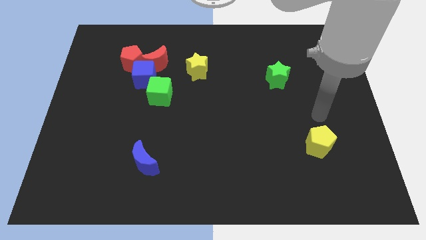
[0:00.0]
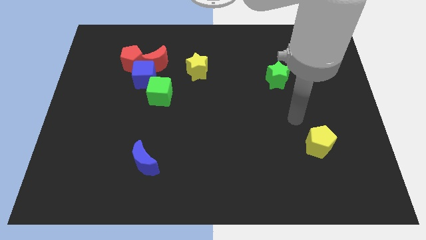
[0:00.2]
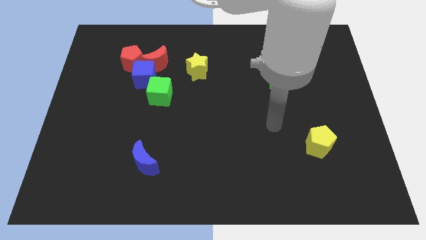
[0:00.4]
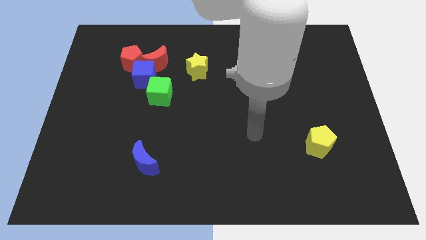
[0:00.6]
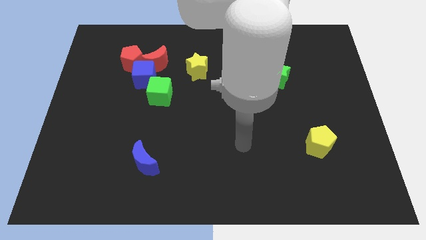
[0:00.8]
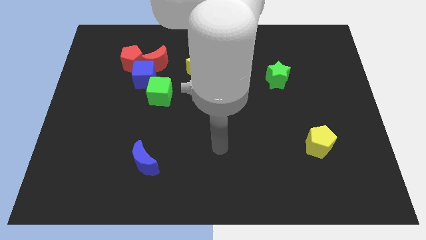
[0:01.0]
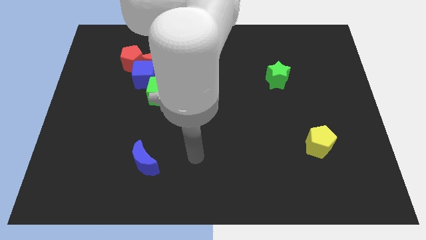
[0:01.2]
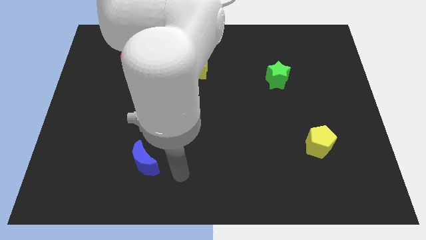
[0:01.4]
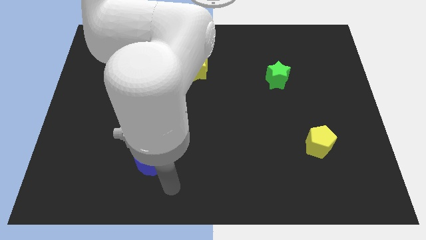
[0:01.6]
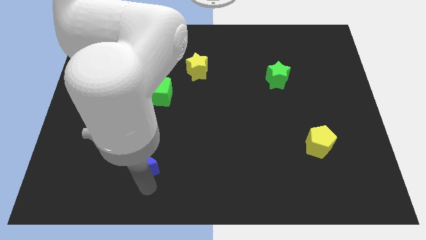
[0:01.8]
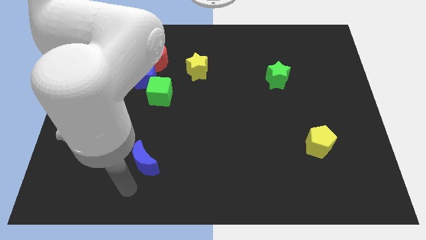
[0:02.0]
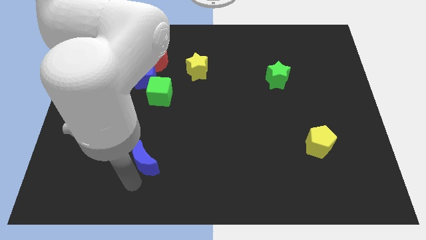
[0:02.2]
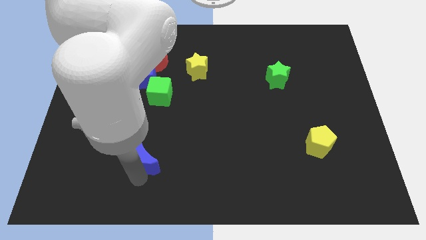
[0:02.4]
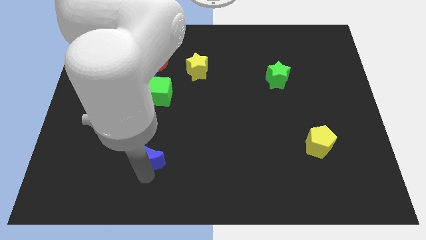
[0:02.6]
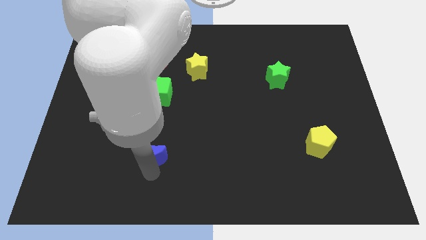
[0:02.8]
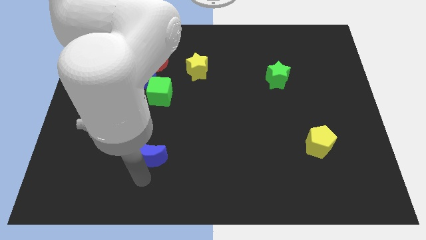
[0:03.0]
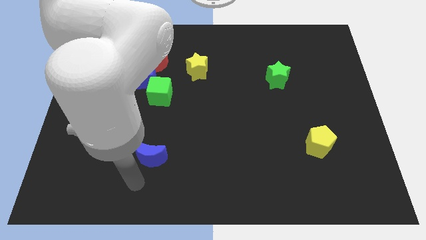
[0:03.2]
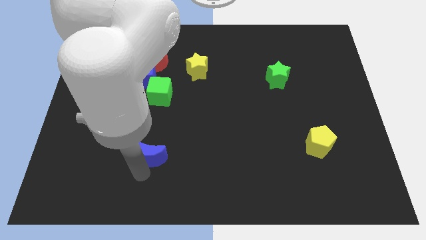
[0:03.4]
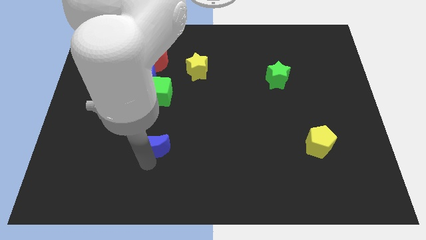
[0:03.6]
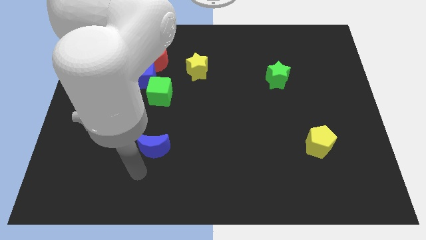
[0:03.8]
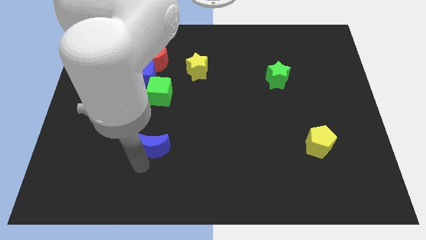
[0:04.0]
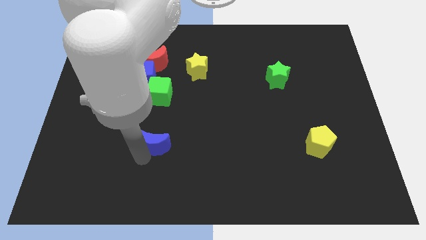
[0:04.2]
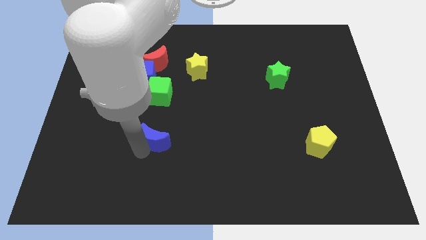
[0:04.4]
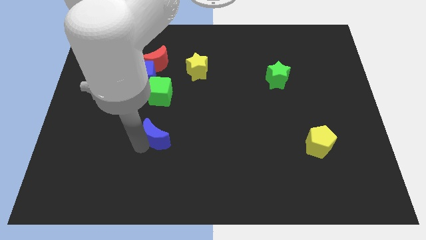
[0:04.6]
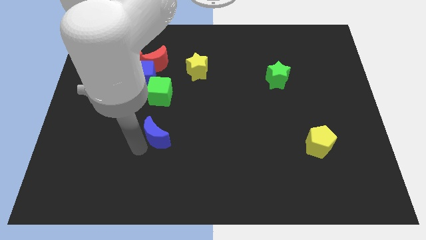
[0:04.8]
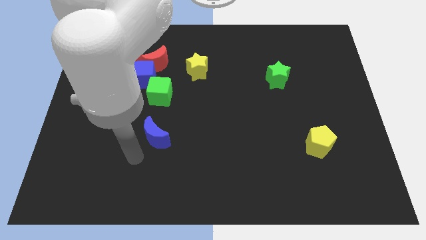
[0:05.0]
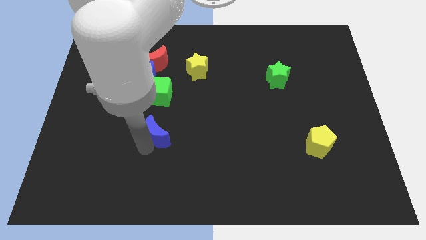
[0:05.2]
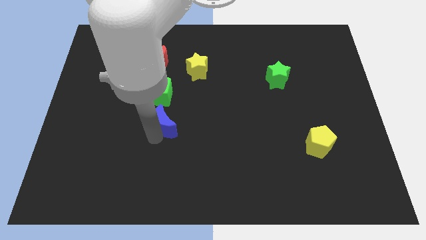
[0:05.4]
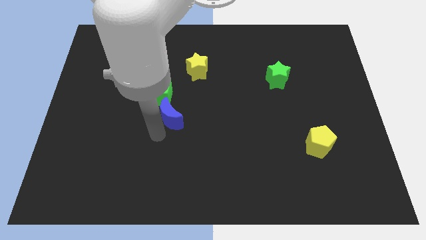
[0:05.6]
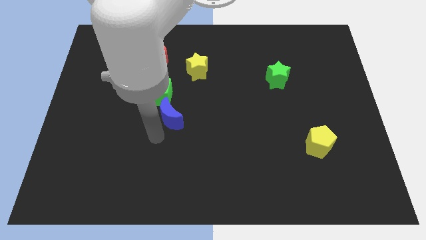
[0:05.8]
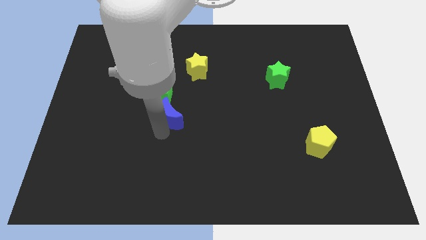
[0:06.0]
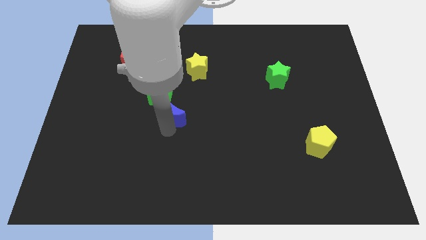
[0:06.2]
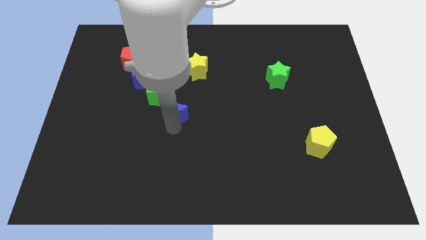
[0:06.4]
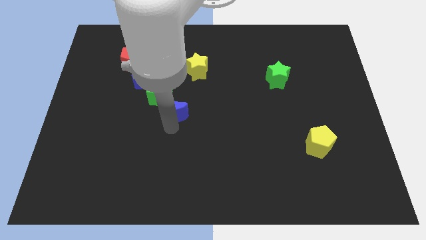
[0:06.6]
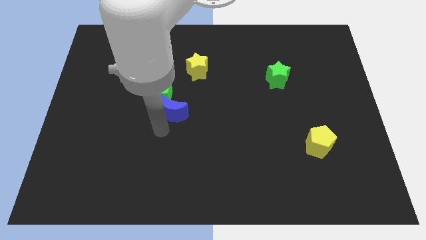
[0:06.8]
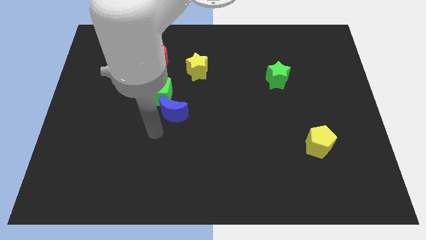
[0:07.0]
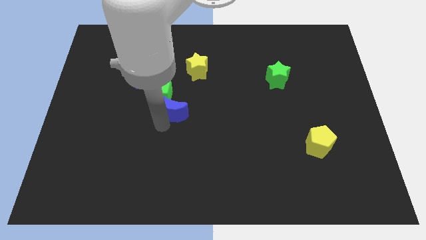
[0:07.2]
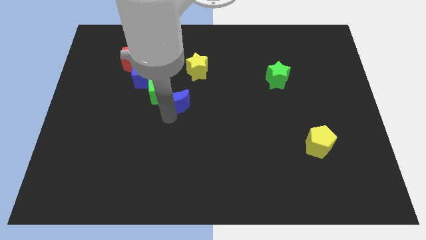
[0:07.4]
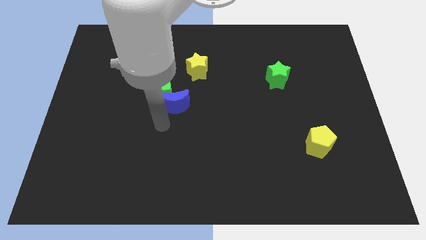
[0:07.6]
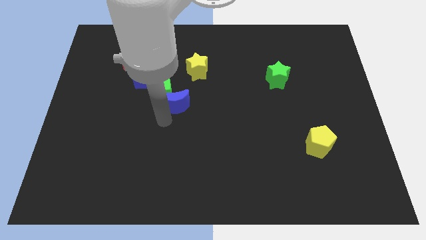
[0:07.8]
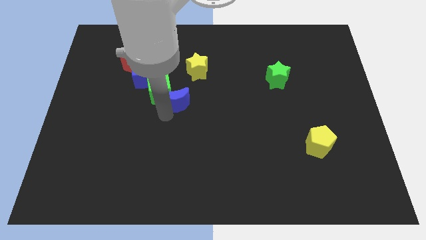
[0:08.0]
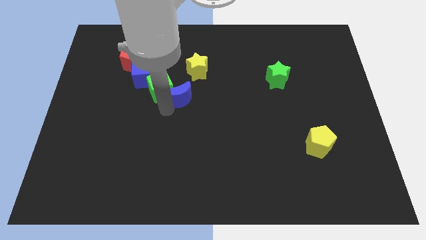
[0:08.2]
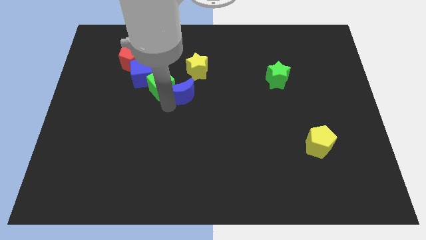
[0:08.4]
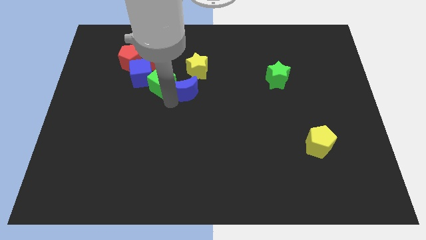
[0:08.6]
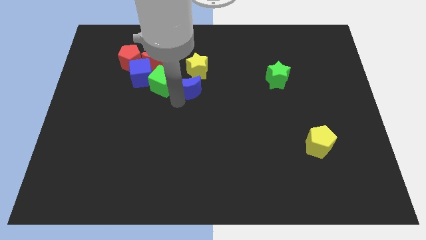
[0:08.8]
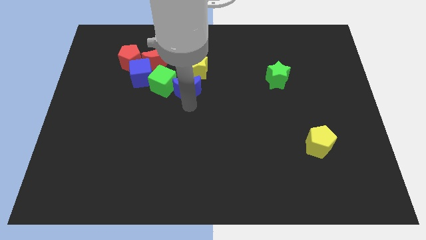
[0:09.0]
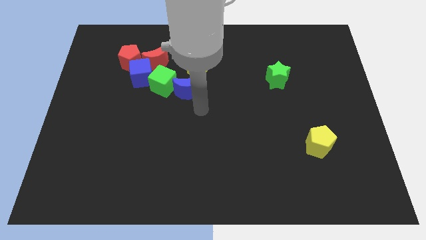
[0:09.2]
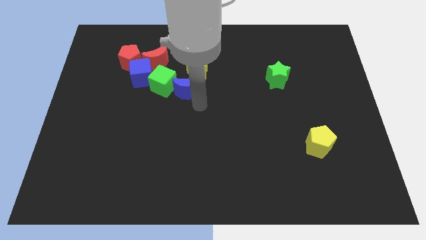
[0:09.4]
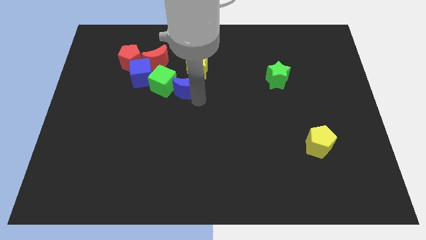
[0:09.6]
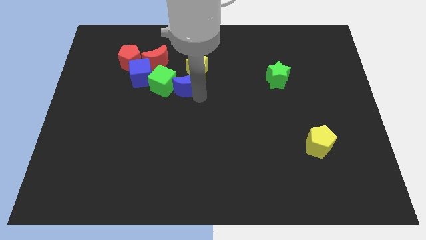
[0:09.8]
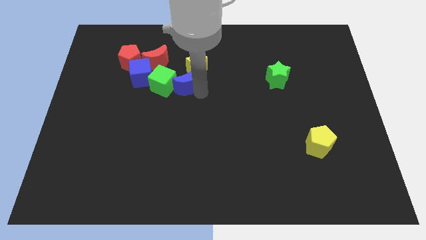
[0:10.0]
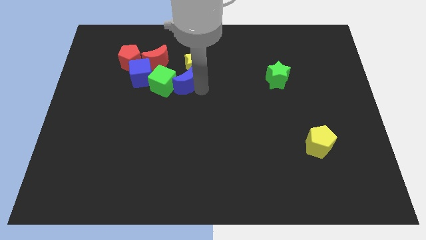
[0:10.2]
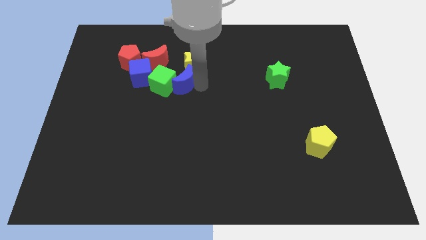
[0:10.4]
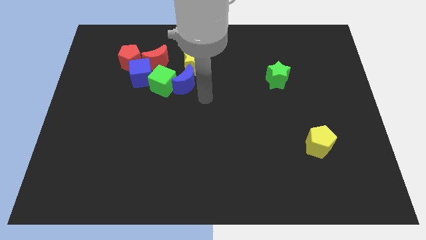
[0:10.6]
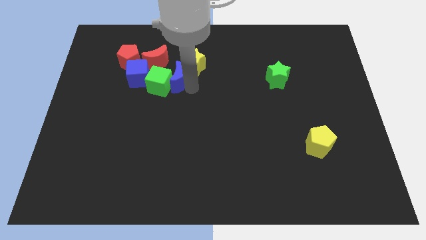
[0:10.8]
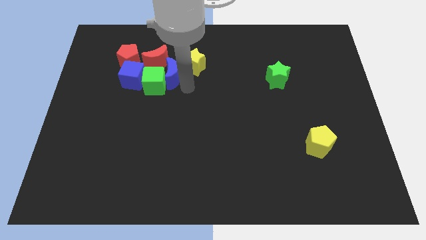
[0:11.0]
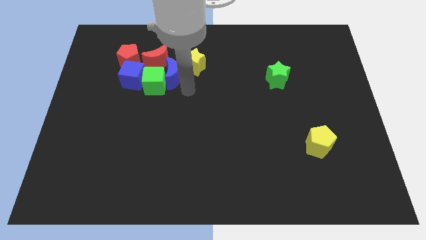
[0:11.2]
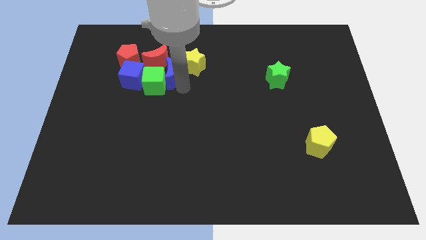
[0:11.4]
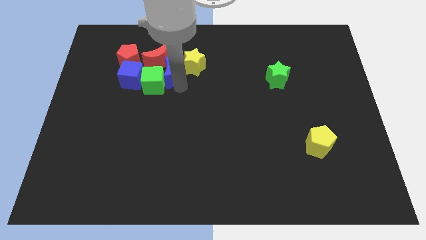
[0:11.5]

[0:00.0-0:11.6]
slide the blue moon towards the red moon
